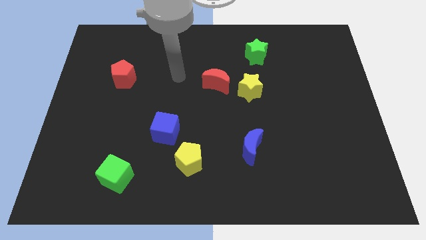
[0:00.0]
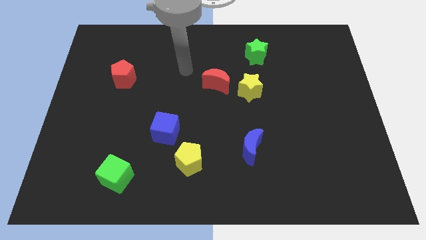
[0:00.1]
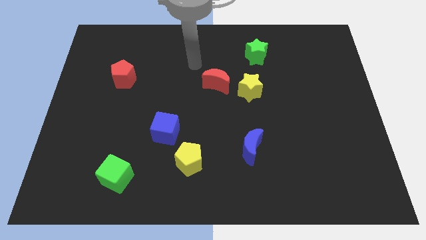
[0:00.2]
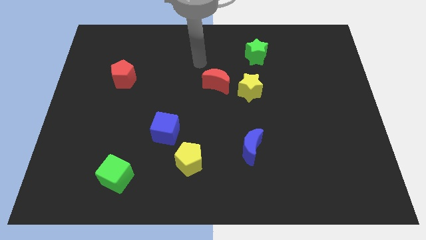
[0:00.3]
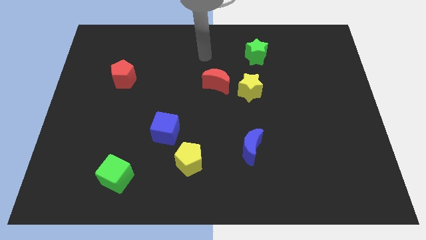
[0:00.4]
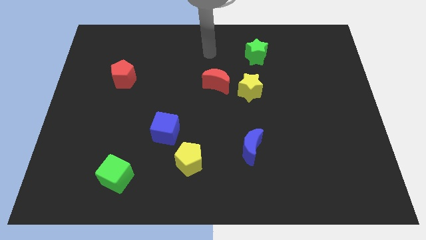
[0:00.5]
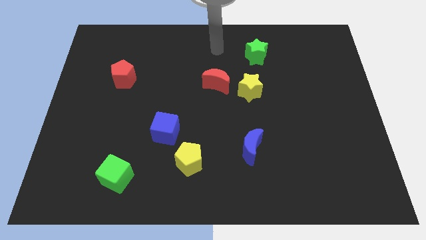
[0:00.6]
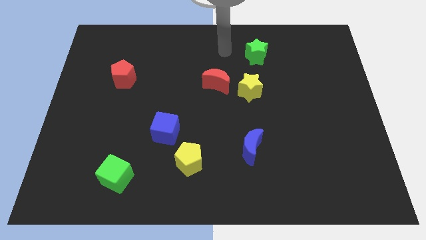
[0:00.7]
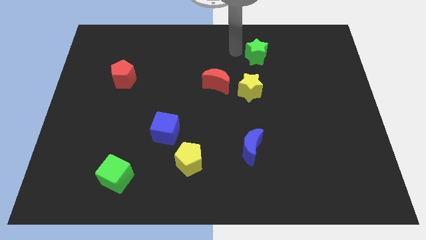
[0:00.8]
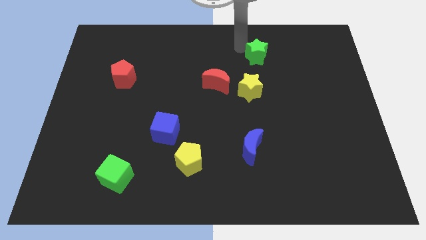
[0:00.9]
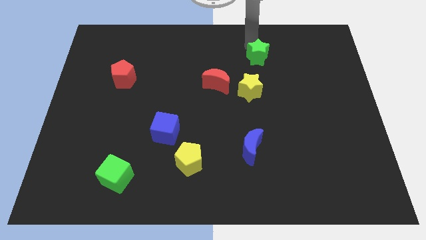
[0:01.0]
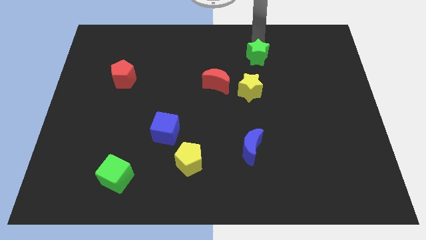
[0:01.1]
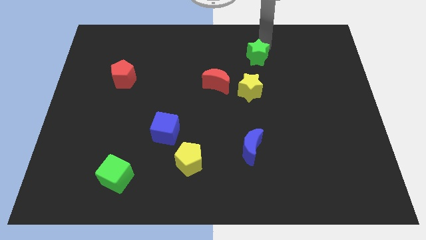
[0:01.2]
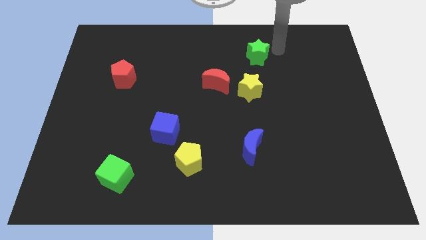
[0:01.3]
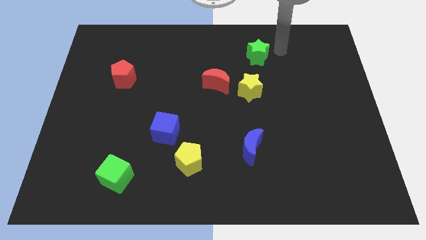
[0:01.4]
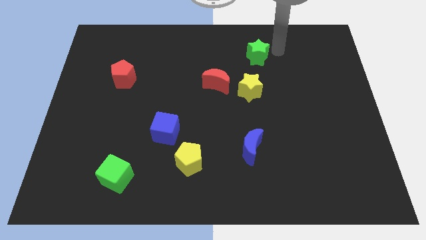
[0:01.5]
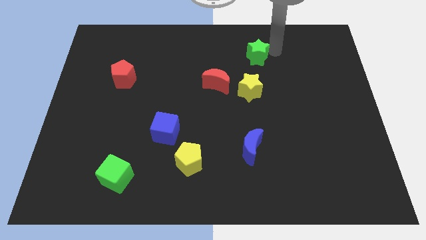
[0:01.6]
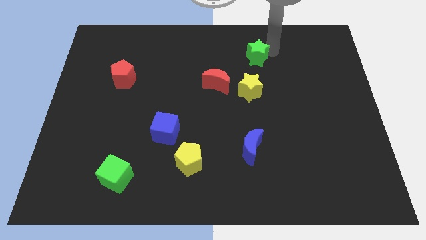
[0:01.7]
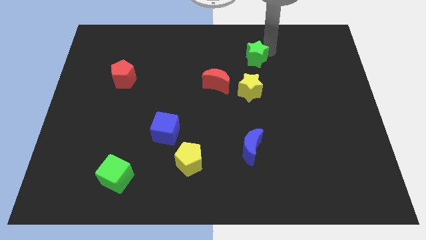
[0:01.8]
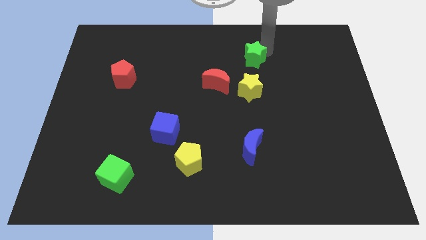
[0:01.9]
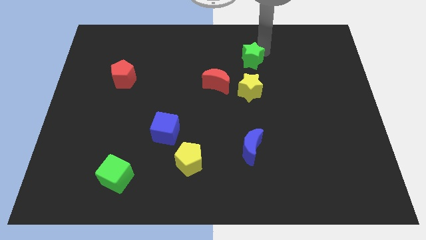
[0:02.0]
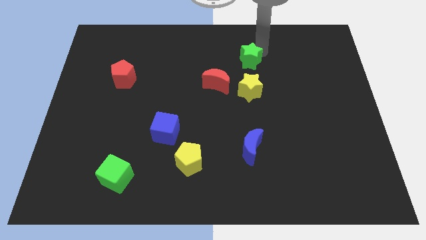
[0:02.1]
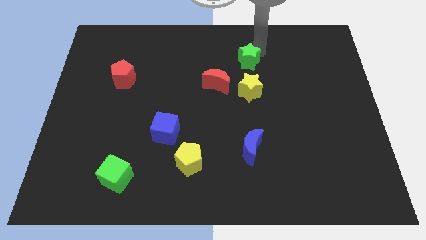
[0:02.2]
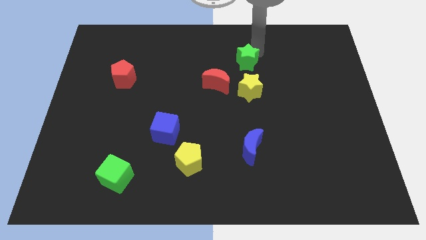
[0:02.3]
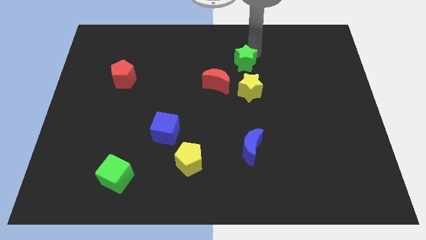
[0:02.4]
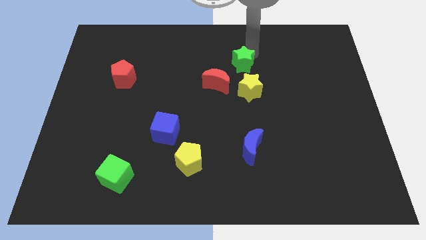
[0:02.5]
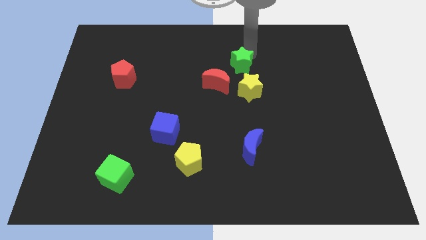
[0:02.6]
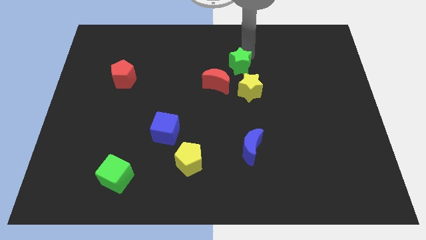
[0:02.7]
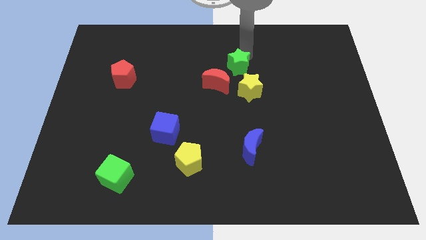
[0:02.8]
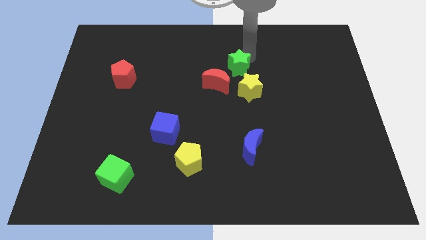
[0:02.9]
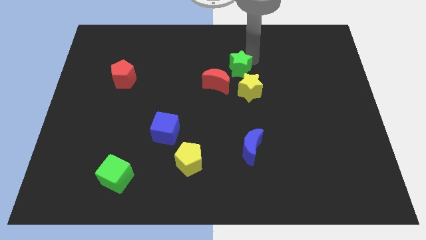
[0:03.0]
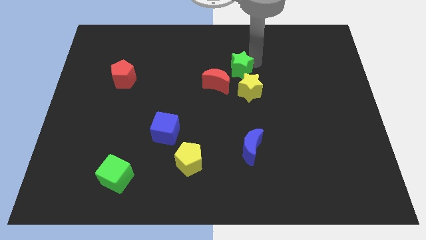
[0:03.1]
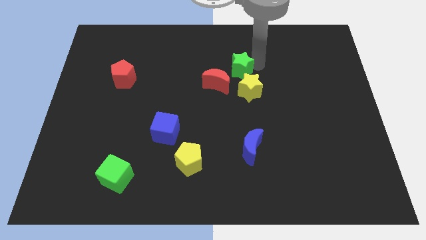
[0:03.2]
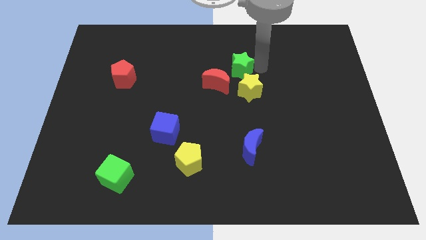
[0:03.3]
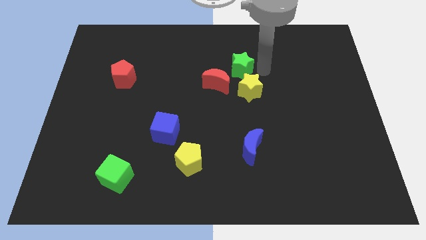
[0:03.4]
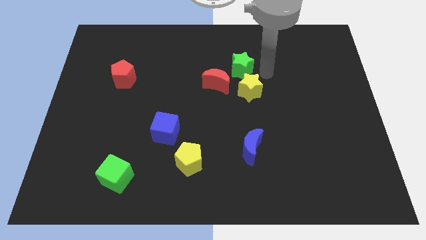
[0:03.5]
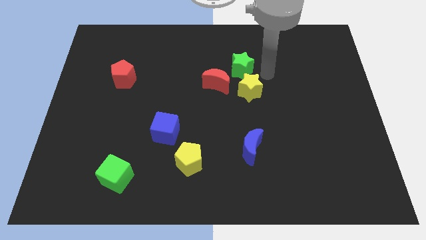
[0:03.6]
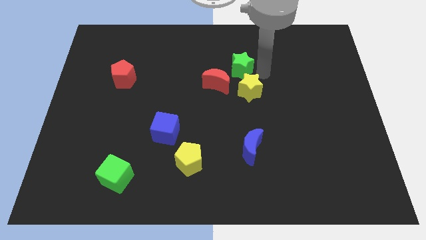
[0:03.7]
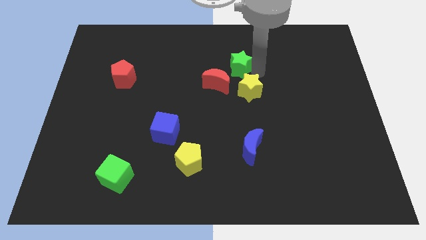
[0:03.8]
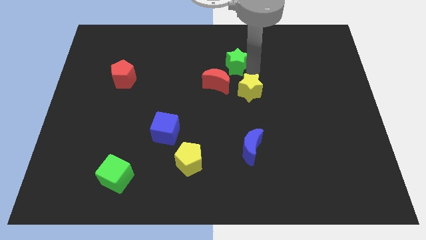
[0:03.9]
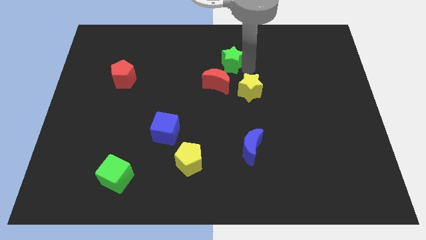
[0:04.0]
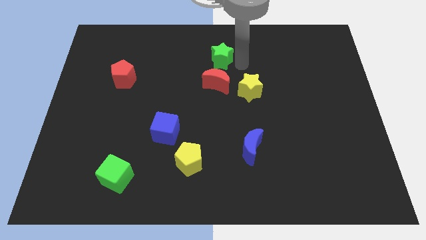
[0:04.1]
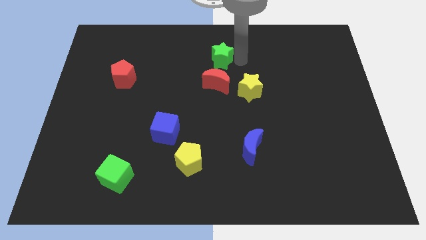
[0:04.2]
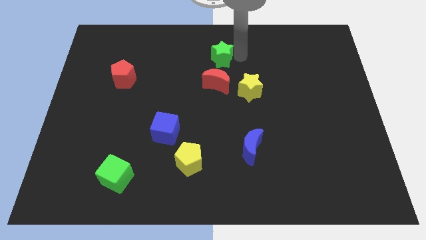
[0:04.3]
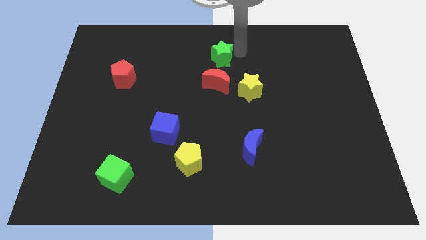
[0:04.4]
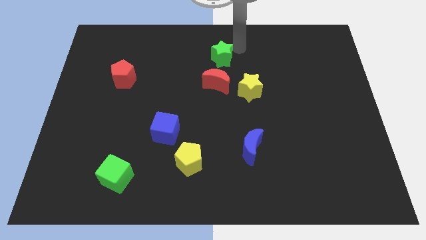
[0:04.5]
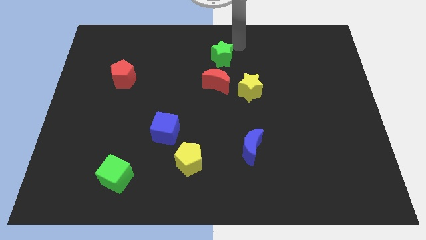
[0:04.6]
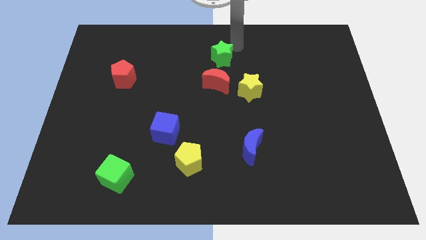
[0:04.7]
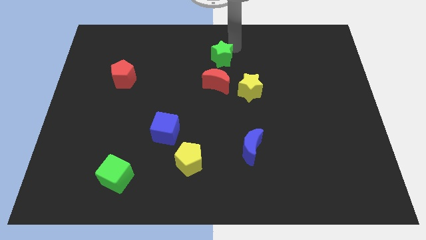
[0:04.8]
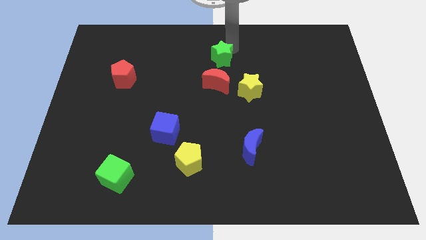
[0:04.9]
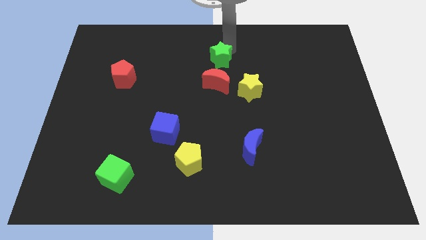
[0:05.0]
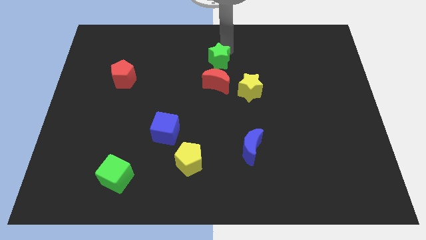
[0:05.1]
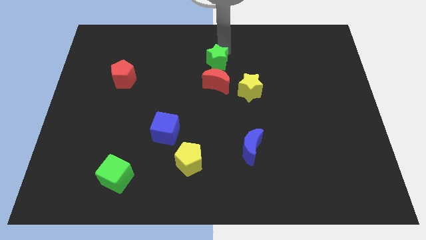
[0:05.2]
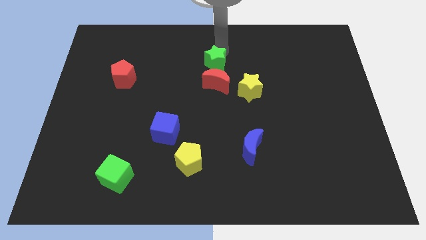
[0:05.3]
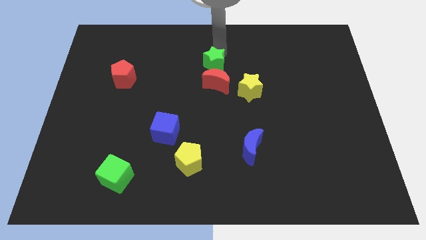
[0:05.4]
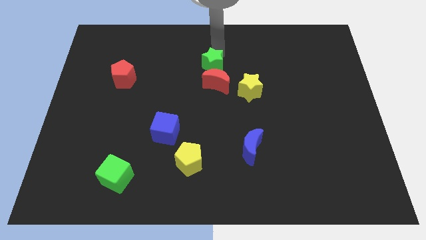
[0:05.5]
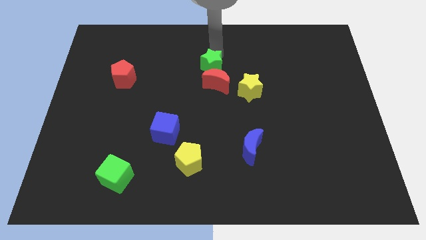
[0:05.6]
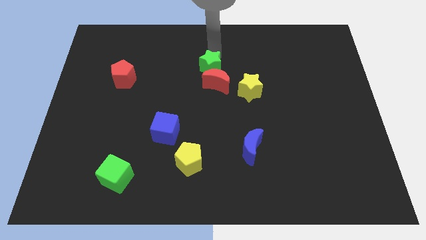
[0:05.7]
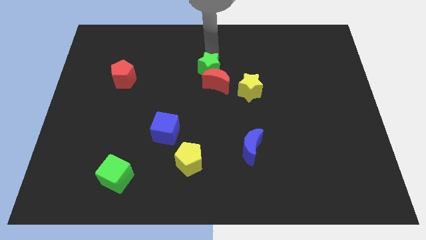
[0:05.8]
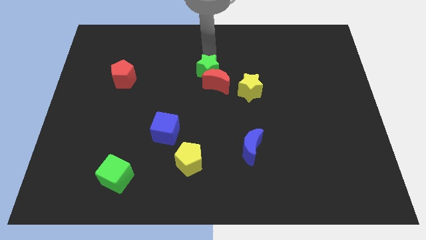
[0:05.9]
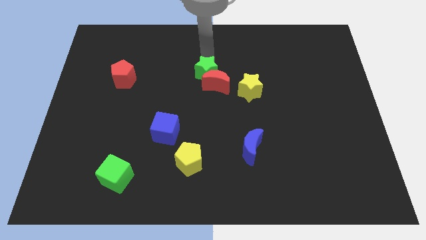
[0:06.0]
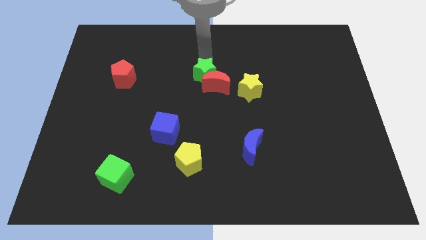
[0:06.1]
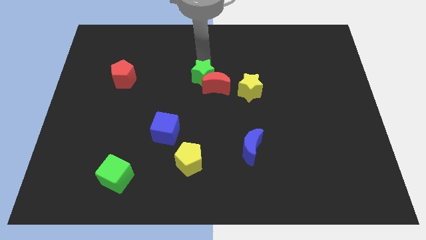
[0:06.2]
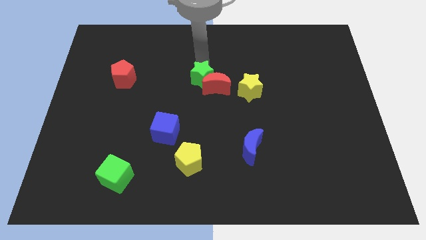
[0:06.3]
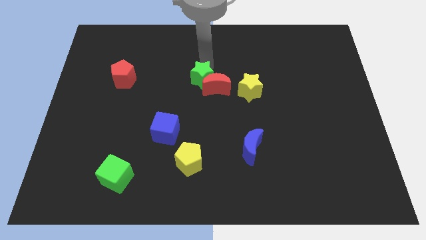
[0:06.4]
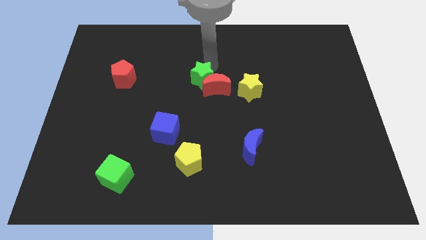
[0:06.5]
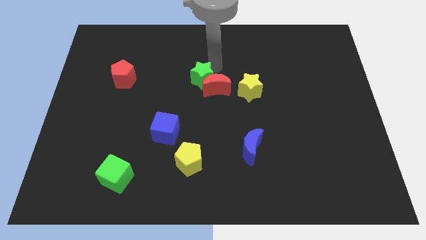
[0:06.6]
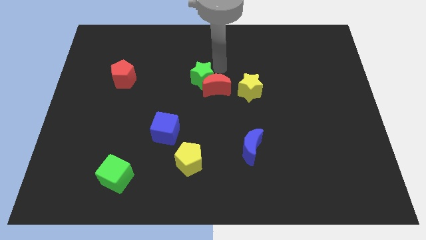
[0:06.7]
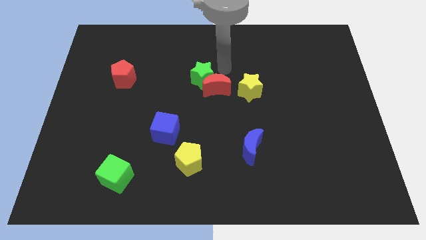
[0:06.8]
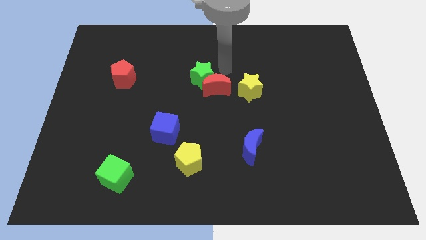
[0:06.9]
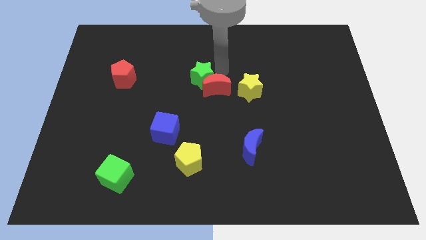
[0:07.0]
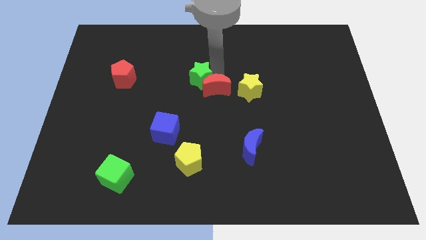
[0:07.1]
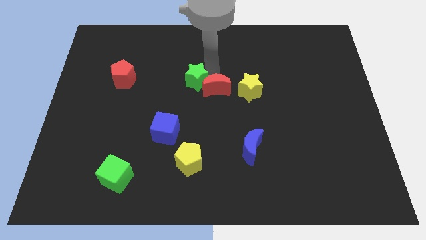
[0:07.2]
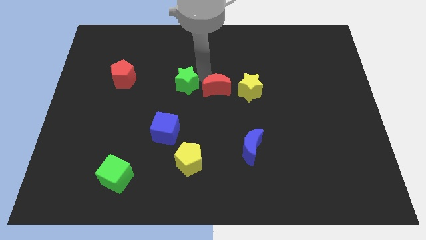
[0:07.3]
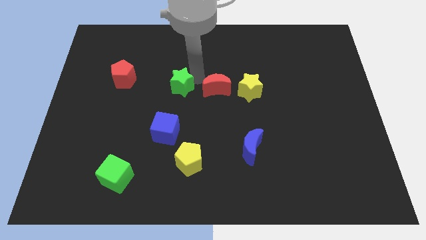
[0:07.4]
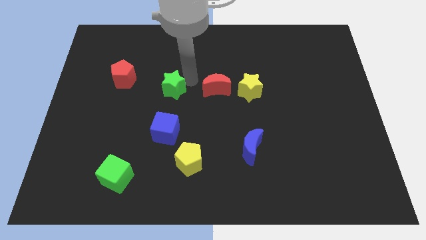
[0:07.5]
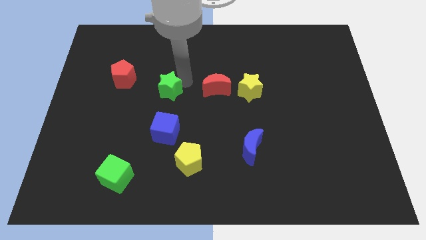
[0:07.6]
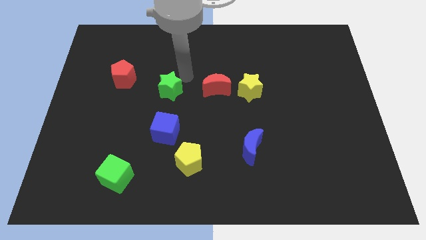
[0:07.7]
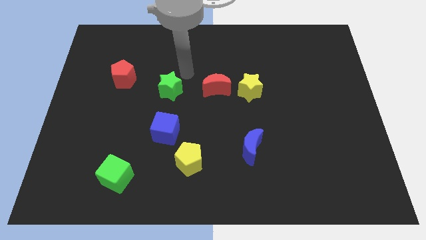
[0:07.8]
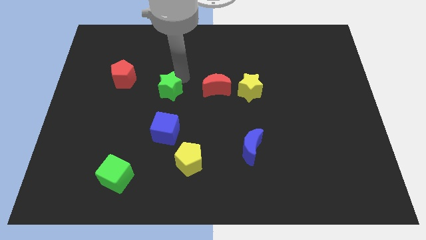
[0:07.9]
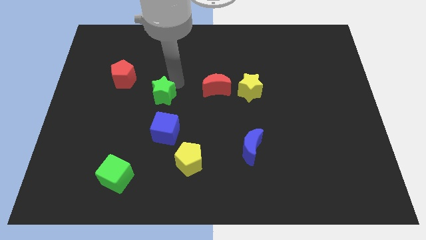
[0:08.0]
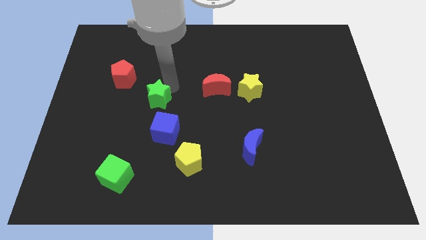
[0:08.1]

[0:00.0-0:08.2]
move the green star diagonally up and to the left of the blue cube
